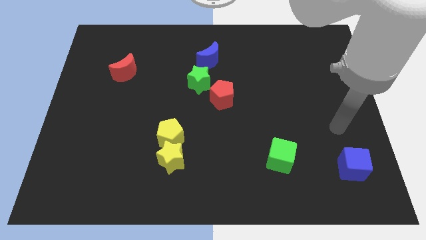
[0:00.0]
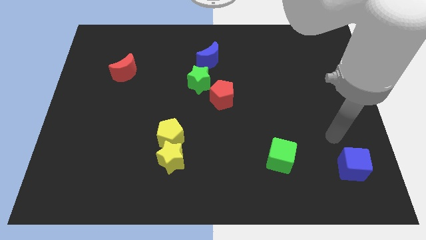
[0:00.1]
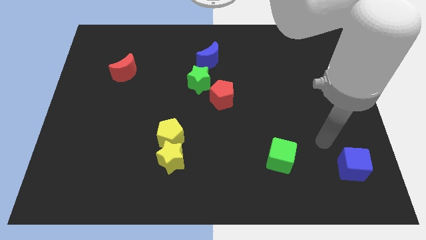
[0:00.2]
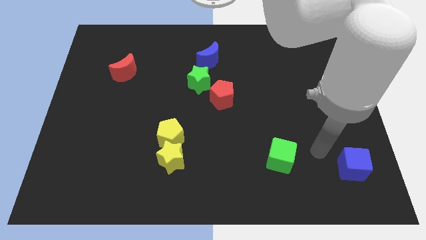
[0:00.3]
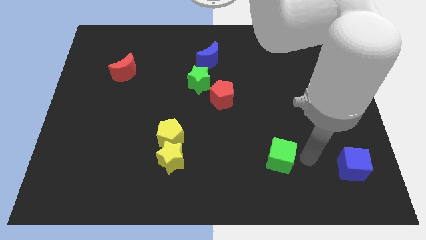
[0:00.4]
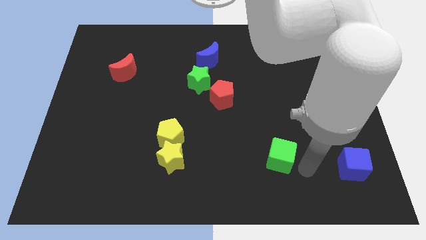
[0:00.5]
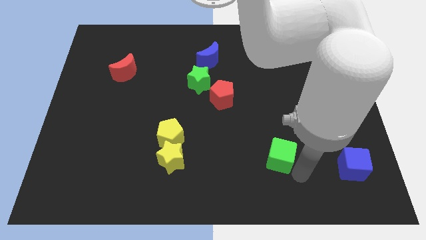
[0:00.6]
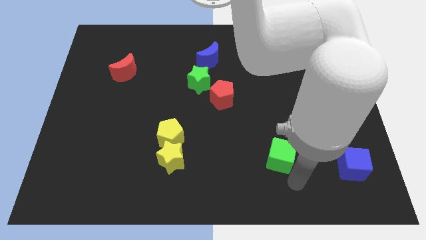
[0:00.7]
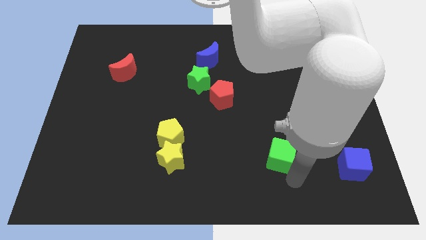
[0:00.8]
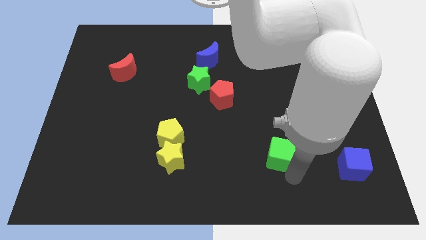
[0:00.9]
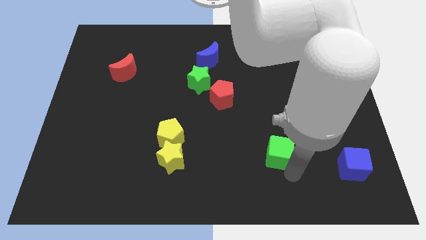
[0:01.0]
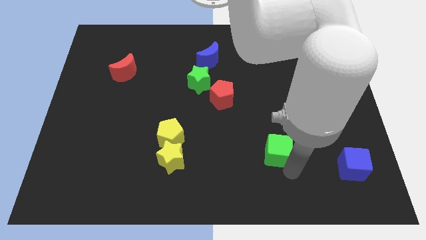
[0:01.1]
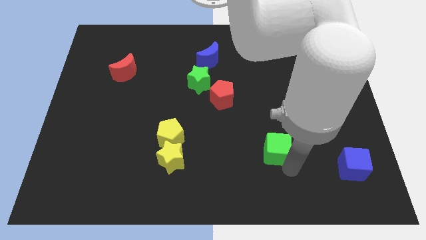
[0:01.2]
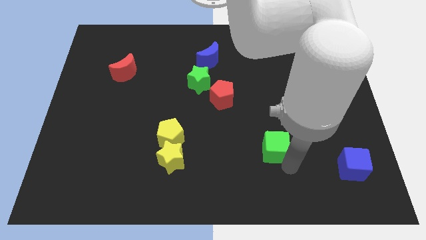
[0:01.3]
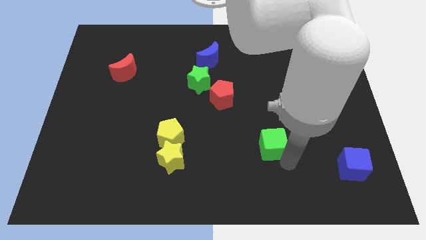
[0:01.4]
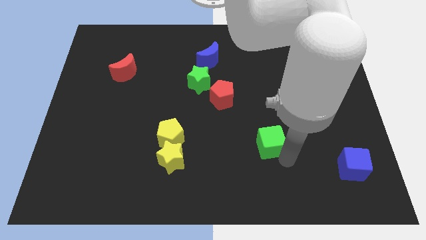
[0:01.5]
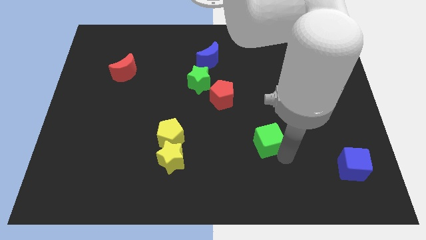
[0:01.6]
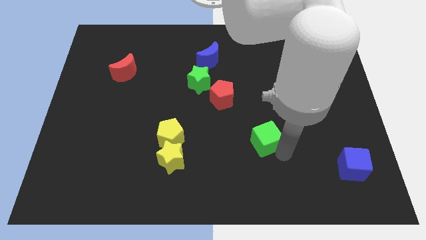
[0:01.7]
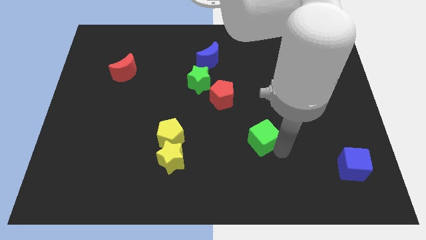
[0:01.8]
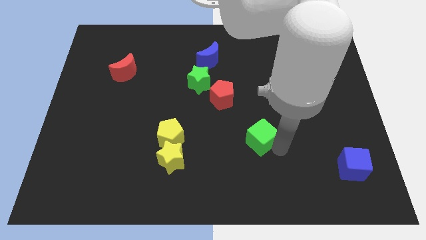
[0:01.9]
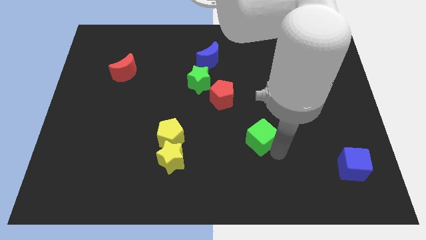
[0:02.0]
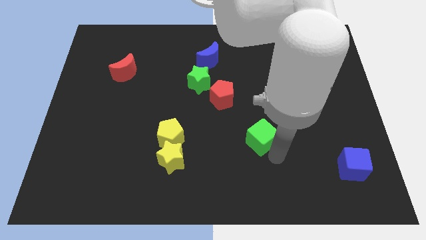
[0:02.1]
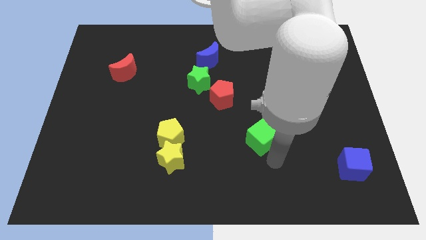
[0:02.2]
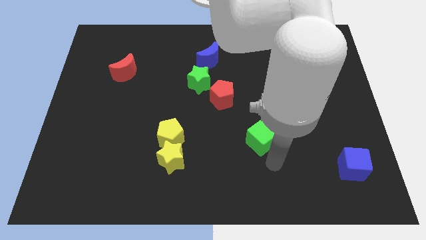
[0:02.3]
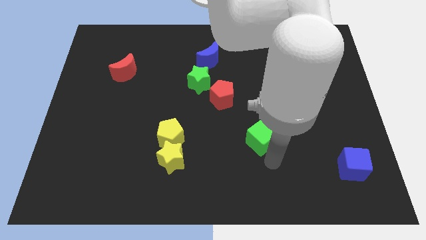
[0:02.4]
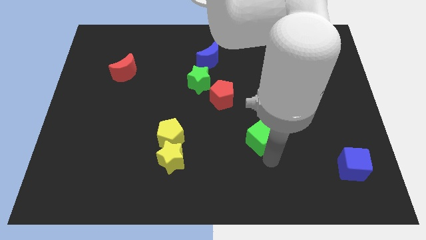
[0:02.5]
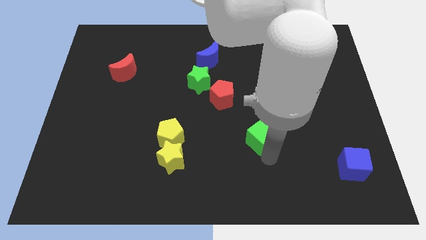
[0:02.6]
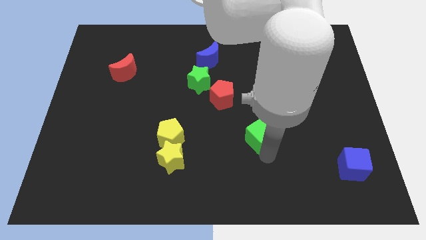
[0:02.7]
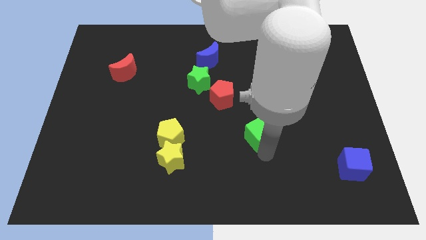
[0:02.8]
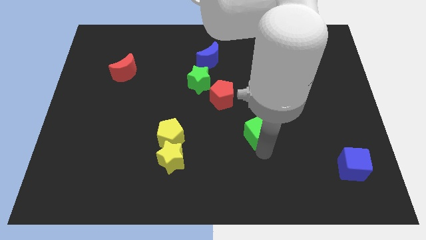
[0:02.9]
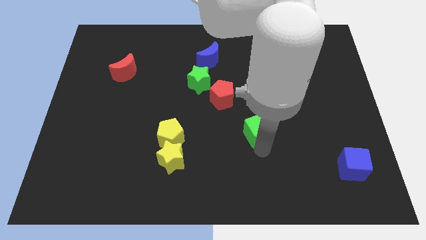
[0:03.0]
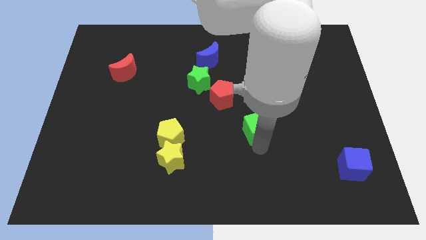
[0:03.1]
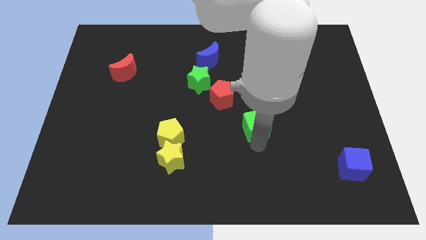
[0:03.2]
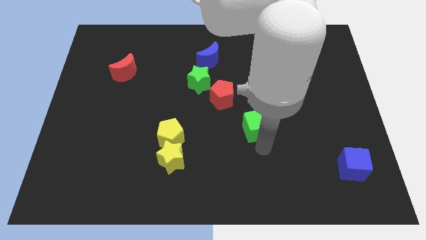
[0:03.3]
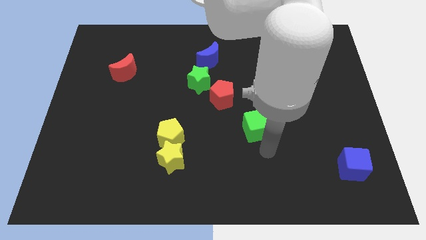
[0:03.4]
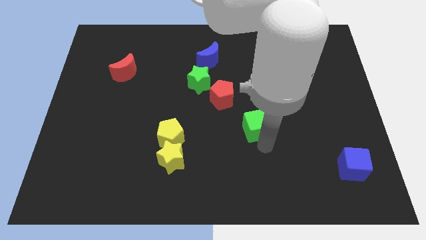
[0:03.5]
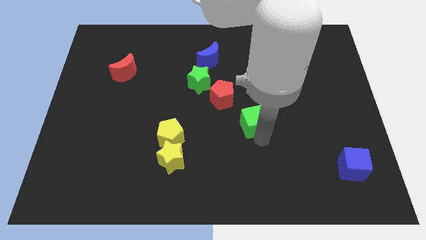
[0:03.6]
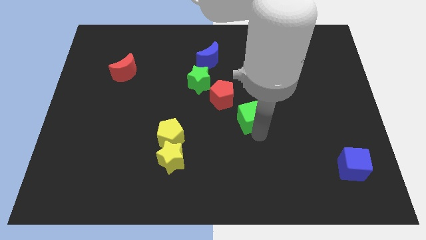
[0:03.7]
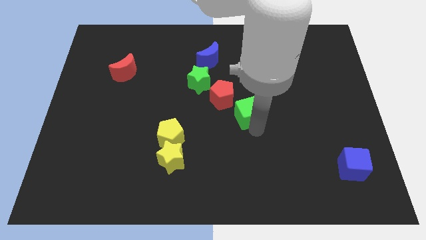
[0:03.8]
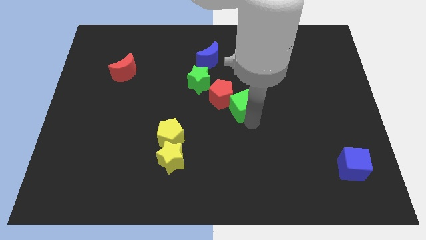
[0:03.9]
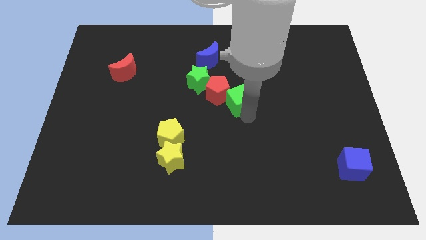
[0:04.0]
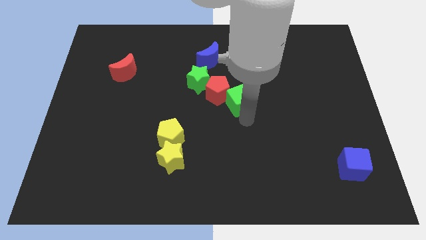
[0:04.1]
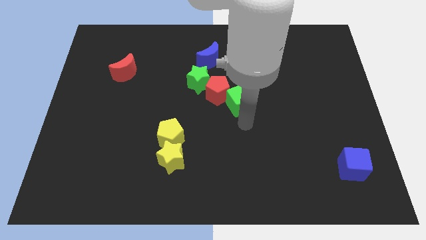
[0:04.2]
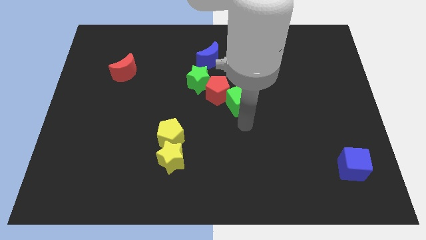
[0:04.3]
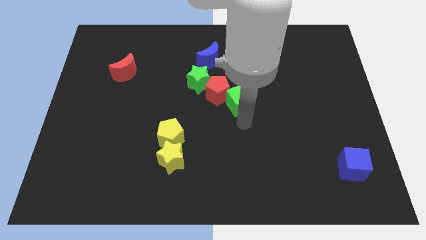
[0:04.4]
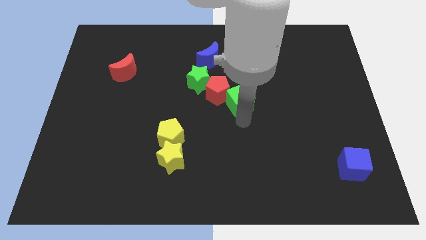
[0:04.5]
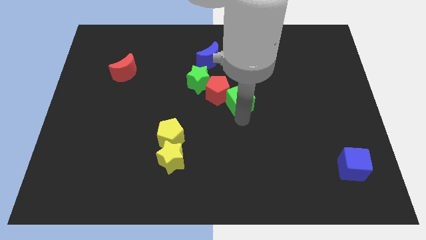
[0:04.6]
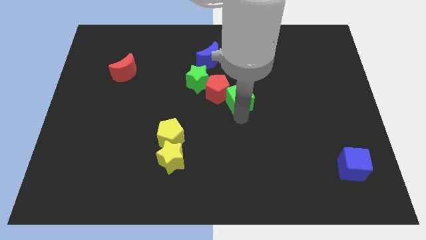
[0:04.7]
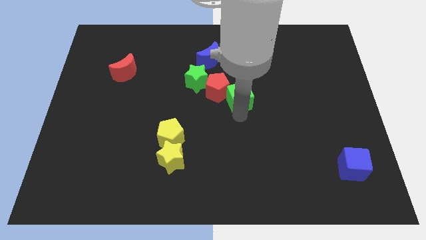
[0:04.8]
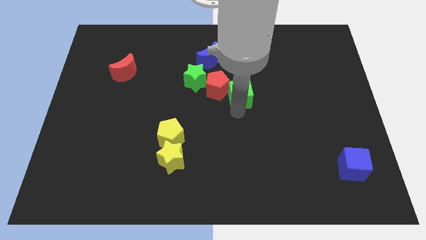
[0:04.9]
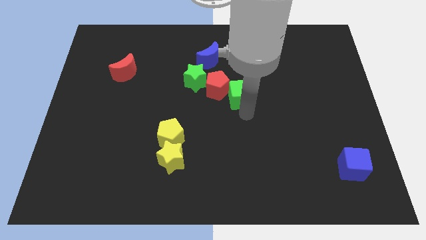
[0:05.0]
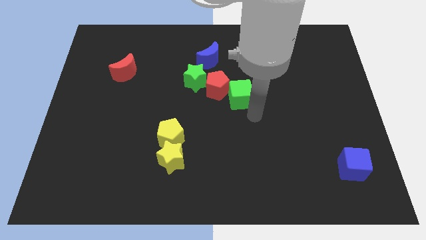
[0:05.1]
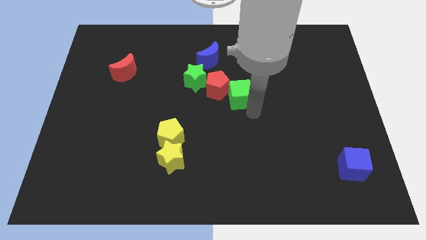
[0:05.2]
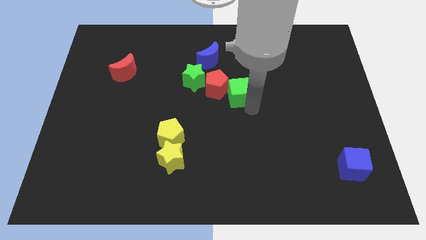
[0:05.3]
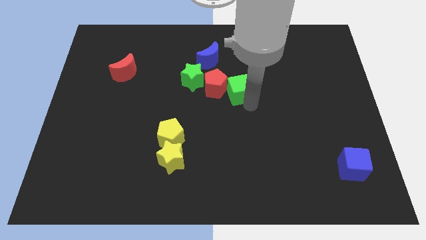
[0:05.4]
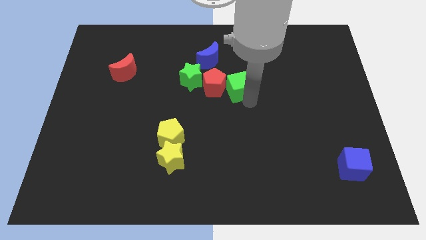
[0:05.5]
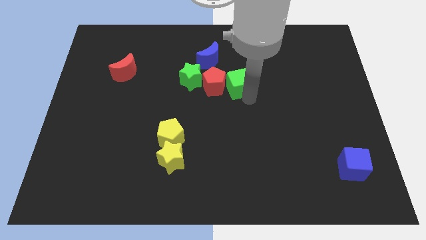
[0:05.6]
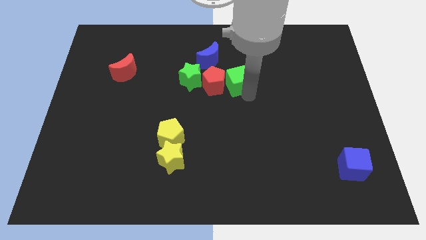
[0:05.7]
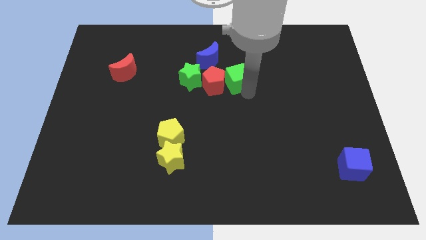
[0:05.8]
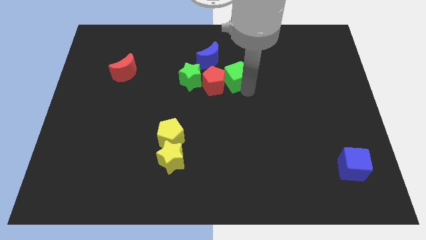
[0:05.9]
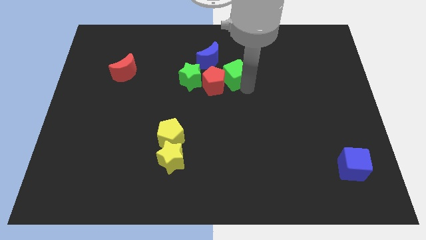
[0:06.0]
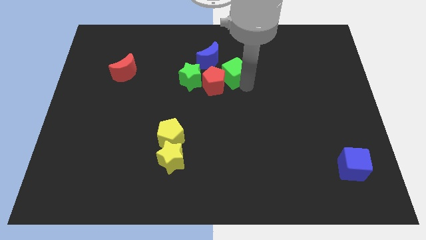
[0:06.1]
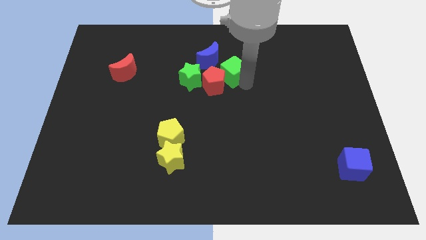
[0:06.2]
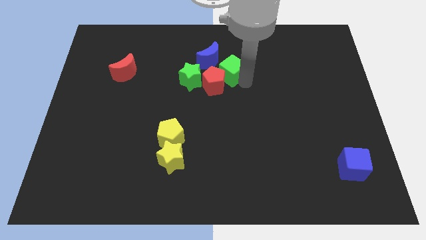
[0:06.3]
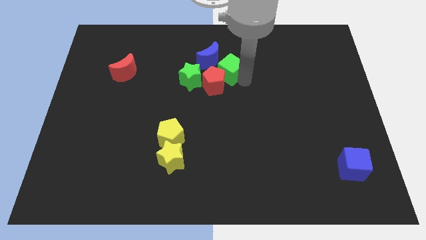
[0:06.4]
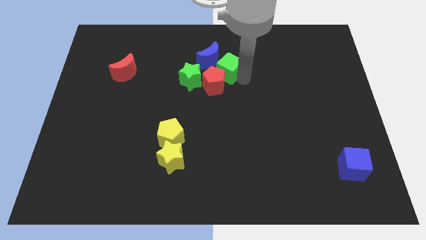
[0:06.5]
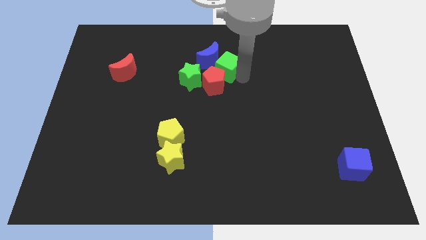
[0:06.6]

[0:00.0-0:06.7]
move the green cube towards the blue moon
